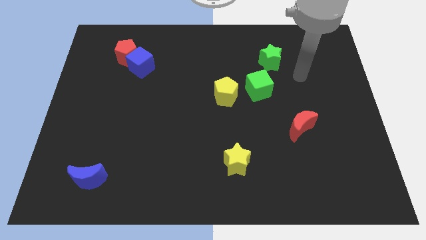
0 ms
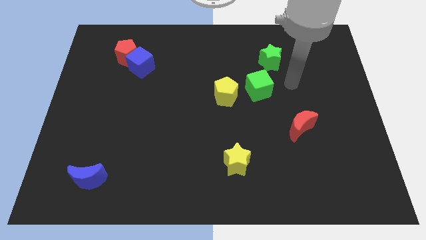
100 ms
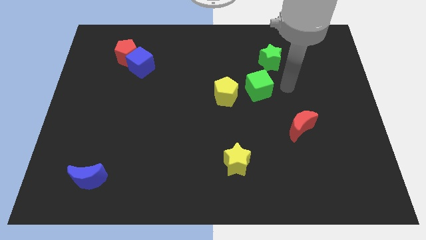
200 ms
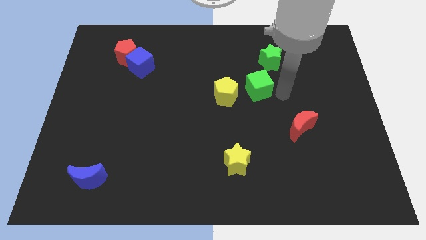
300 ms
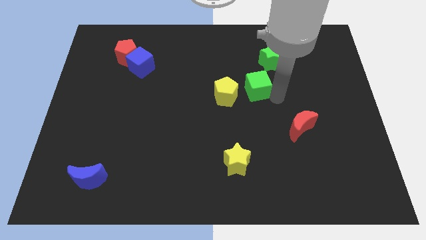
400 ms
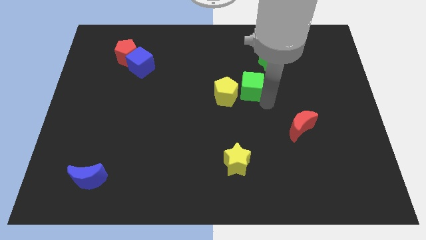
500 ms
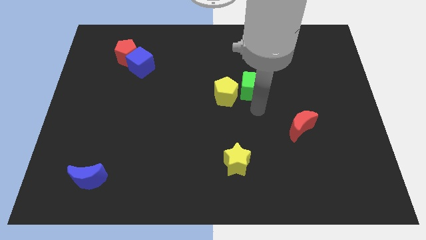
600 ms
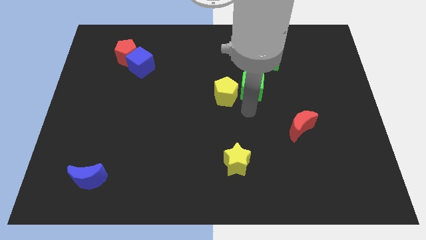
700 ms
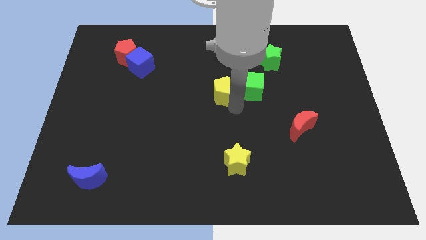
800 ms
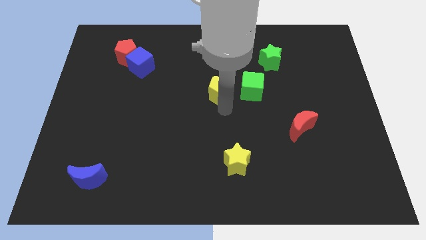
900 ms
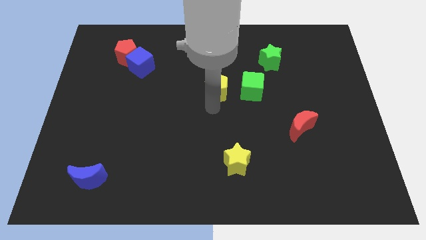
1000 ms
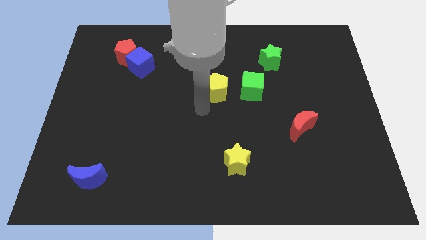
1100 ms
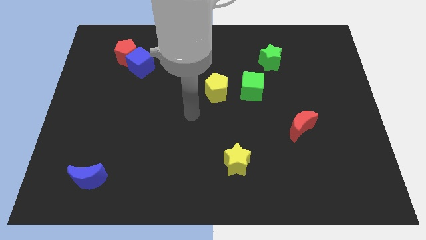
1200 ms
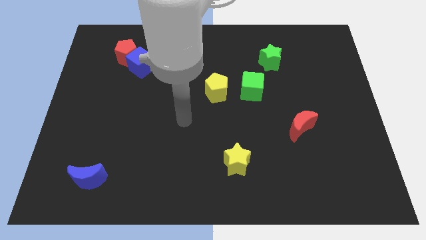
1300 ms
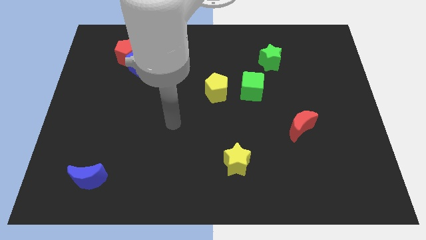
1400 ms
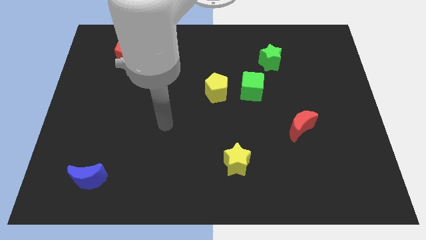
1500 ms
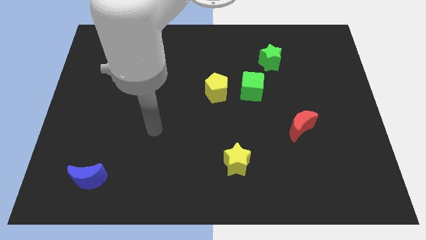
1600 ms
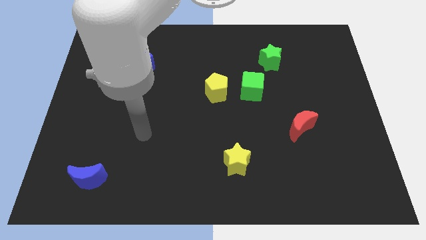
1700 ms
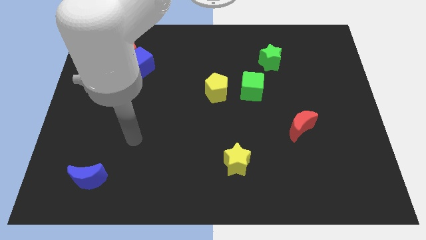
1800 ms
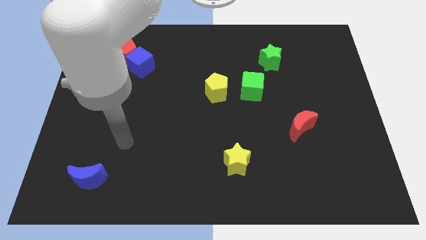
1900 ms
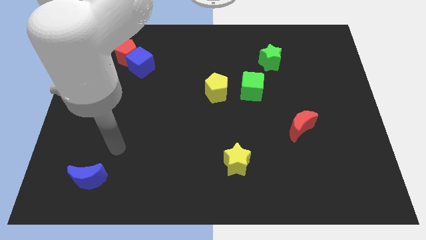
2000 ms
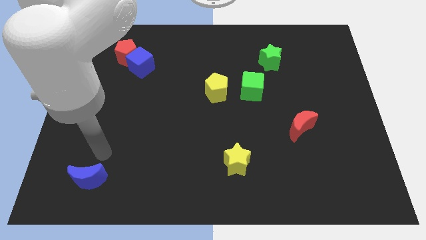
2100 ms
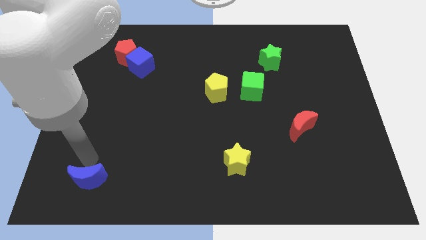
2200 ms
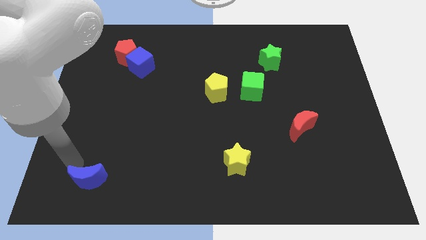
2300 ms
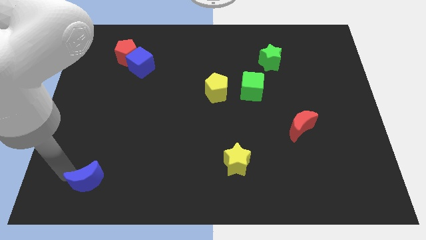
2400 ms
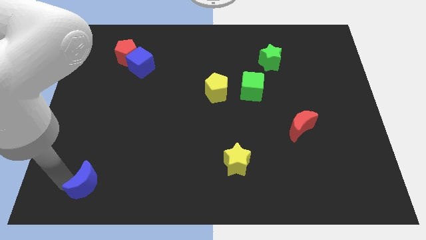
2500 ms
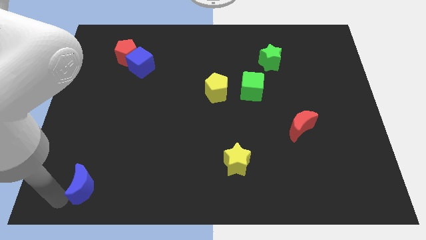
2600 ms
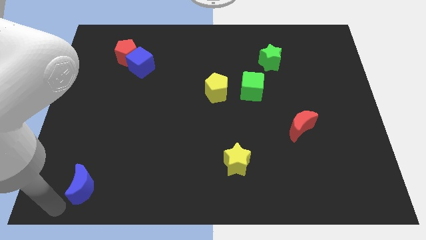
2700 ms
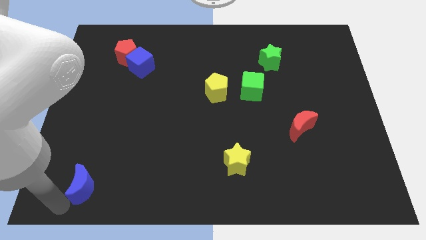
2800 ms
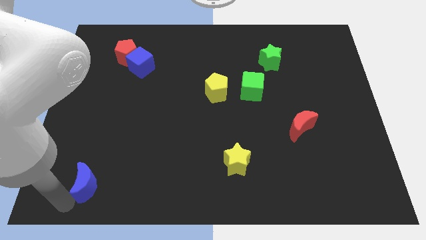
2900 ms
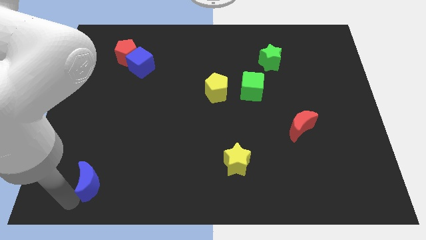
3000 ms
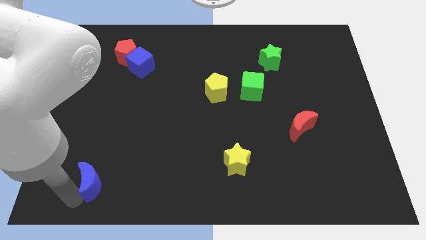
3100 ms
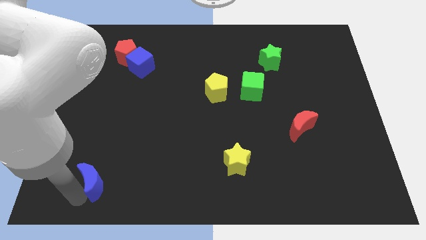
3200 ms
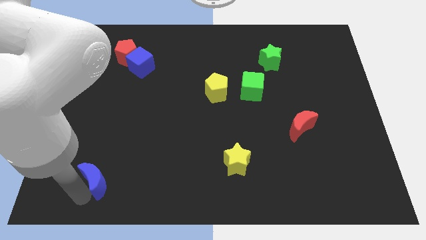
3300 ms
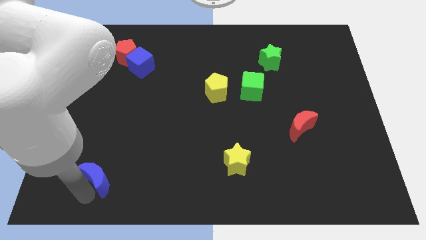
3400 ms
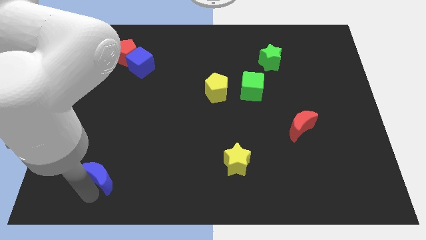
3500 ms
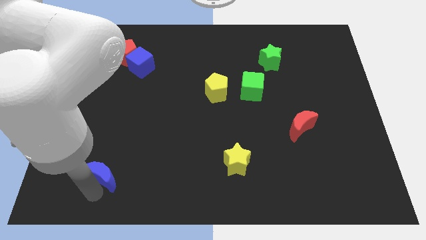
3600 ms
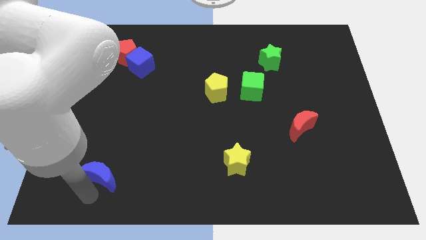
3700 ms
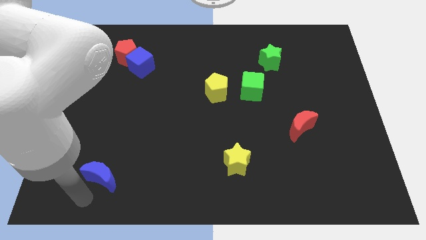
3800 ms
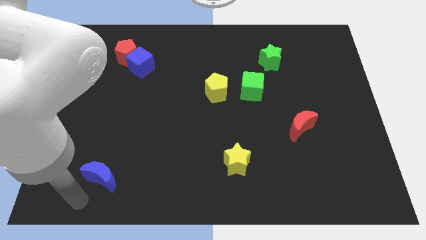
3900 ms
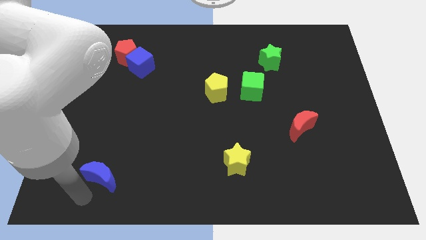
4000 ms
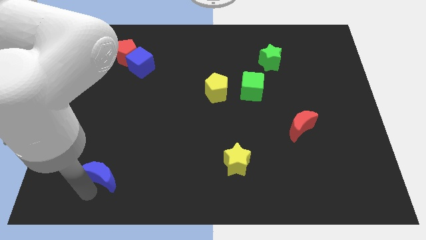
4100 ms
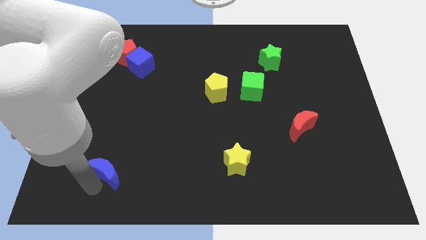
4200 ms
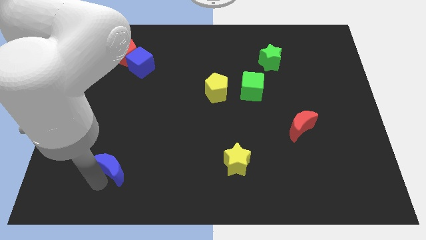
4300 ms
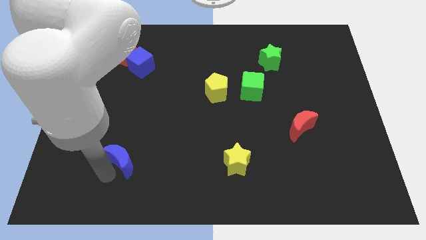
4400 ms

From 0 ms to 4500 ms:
move the blue moon a little diagonally upwards and to the right

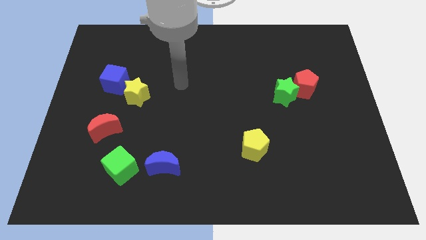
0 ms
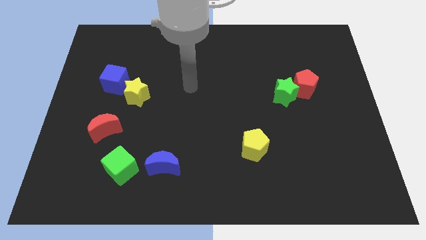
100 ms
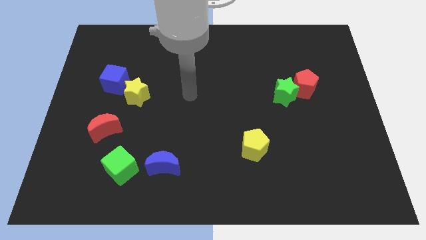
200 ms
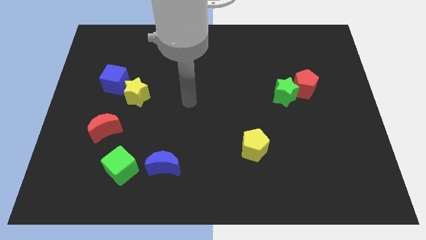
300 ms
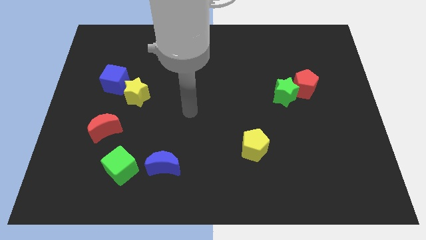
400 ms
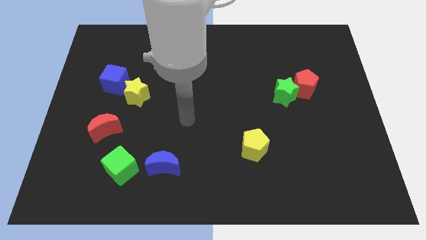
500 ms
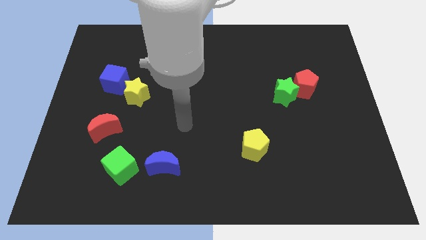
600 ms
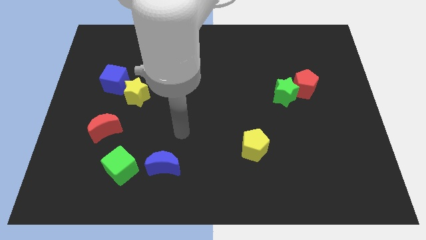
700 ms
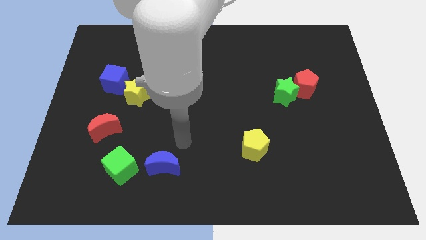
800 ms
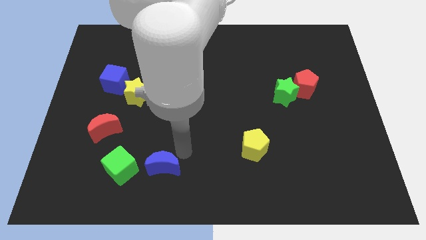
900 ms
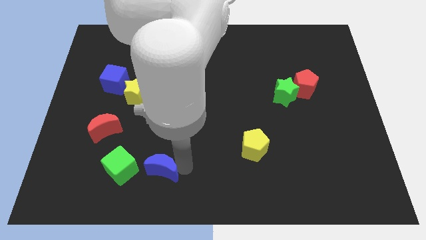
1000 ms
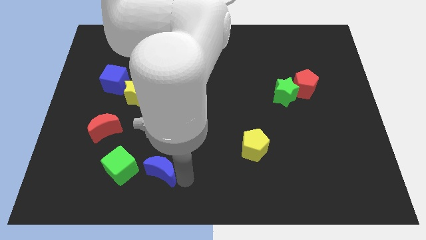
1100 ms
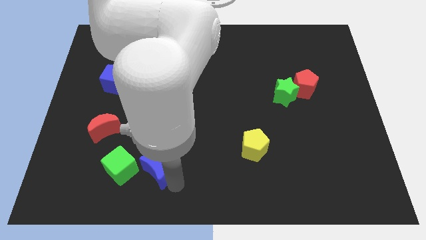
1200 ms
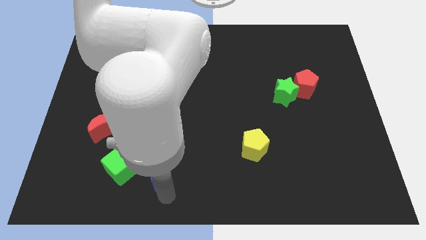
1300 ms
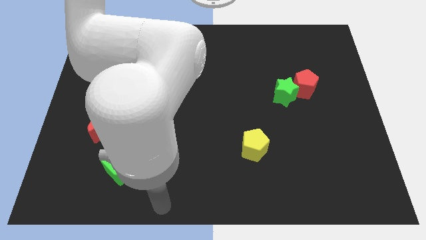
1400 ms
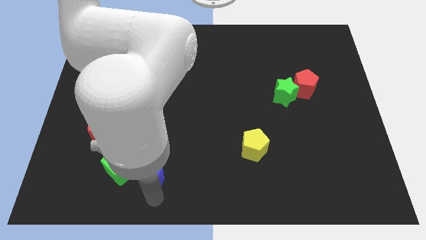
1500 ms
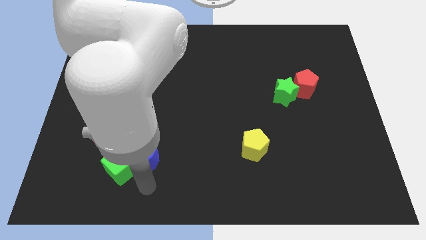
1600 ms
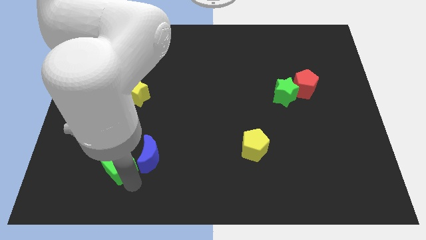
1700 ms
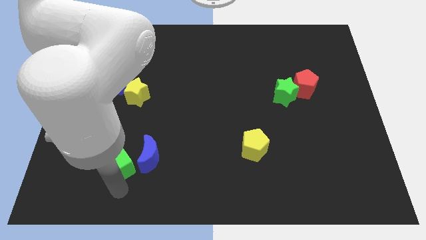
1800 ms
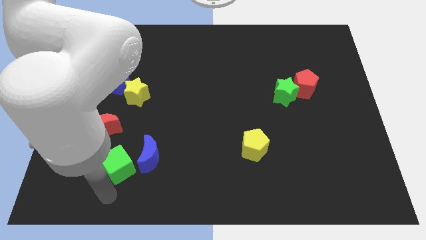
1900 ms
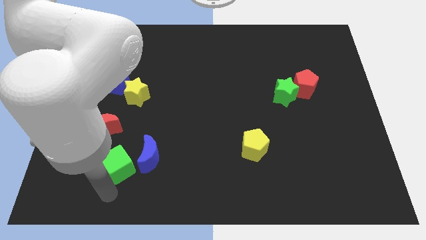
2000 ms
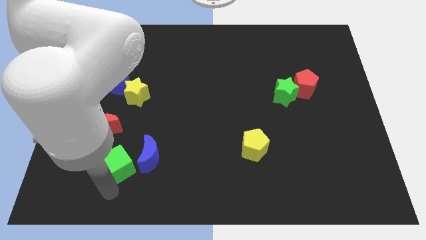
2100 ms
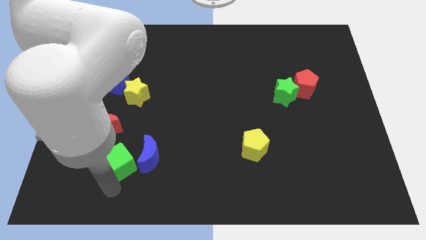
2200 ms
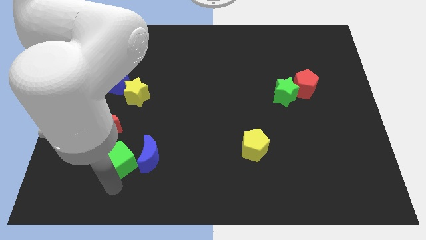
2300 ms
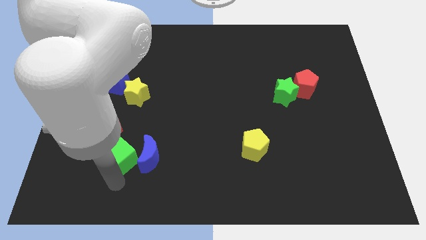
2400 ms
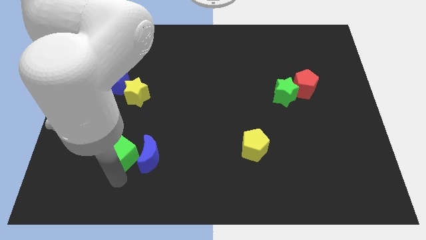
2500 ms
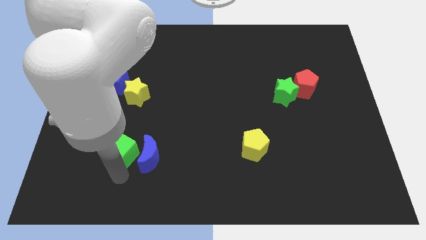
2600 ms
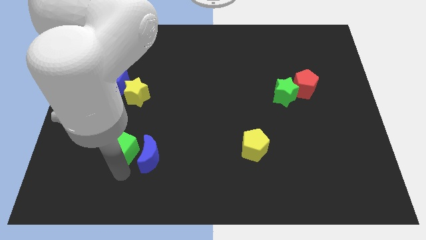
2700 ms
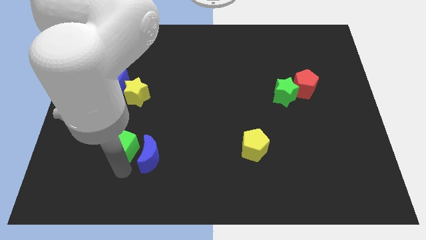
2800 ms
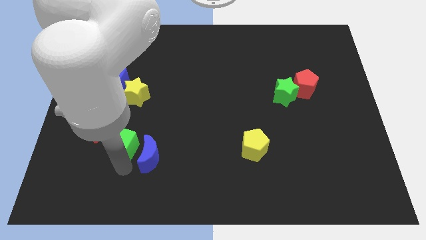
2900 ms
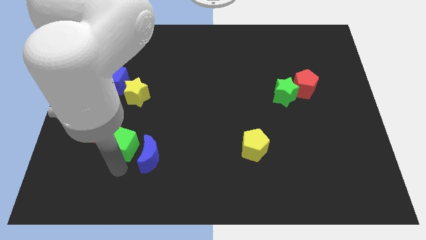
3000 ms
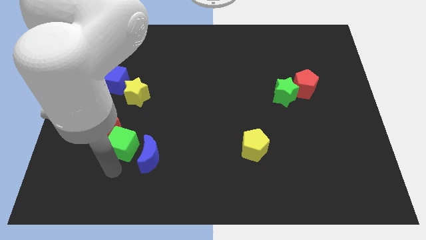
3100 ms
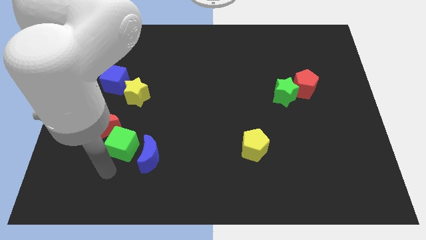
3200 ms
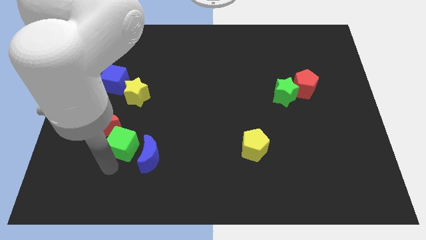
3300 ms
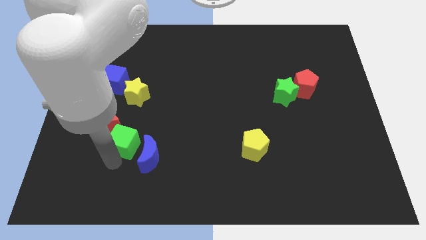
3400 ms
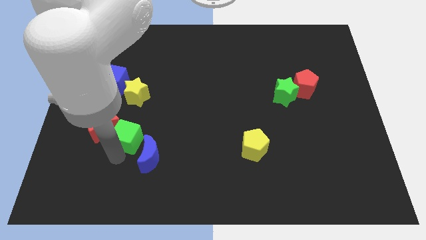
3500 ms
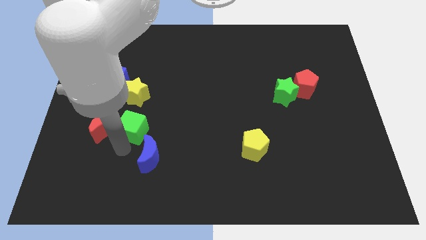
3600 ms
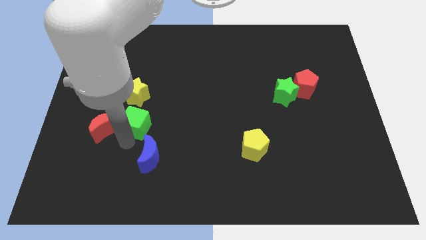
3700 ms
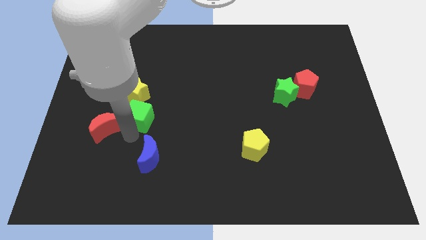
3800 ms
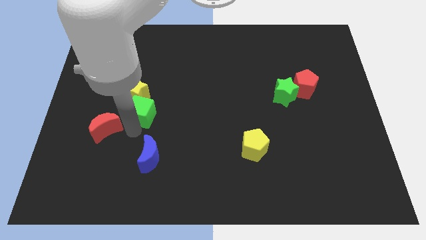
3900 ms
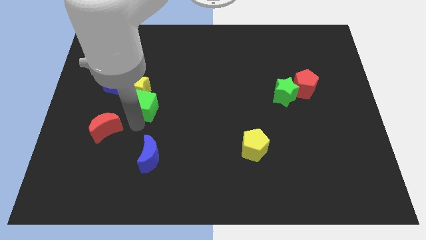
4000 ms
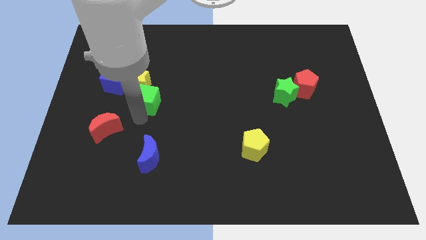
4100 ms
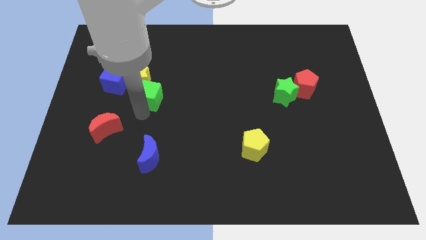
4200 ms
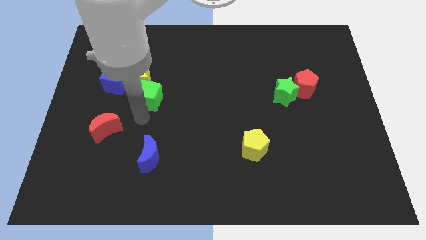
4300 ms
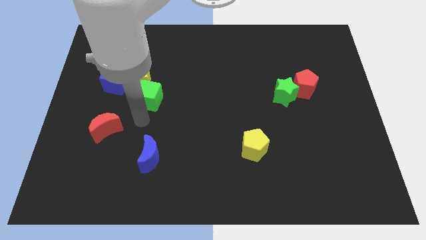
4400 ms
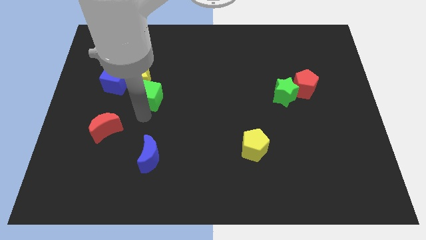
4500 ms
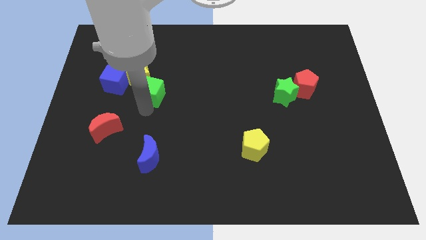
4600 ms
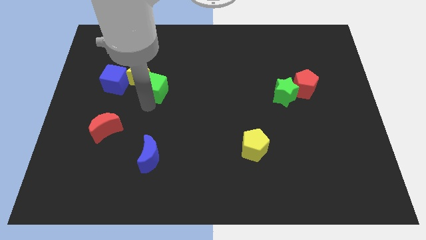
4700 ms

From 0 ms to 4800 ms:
push the green cube up
